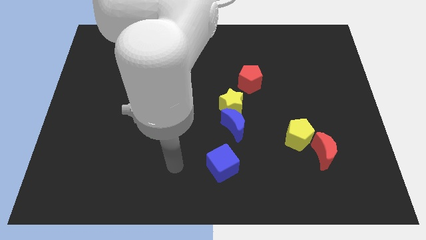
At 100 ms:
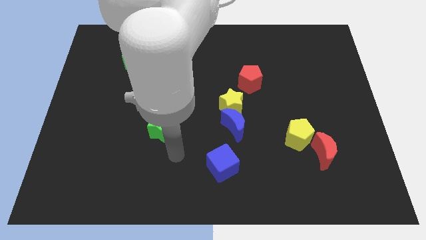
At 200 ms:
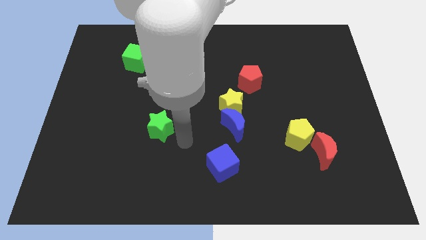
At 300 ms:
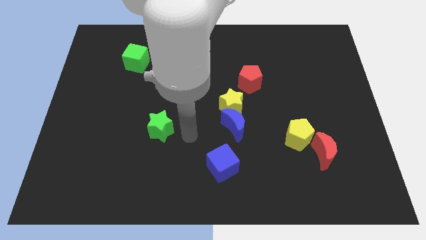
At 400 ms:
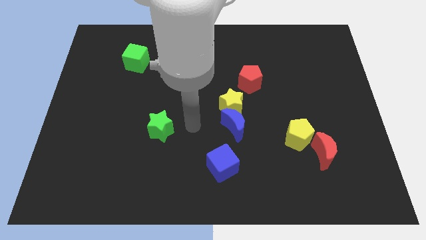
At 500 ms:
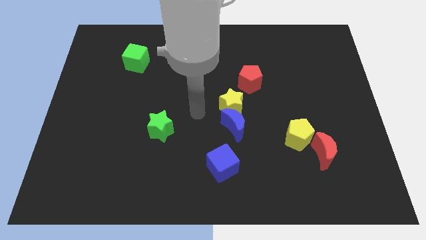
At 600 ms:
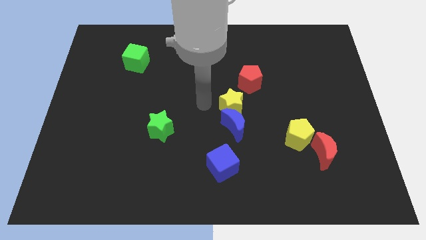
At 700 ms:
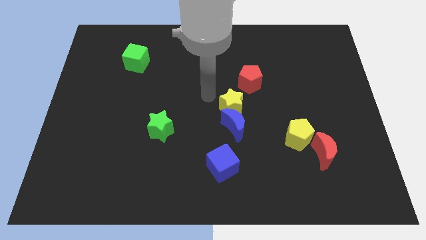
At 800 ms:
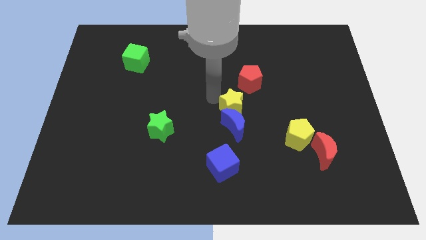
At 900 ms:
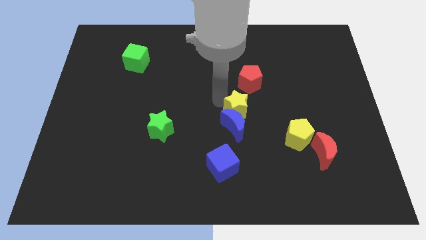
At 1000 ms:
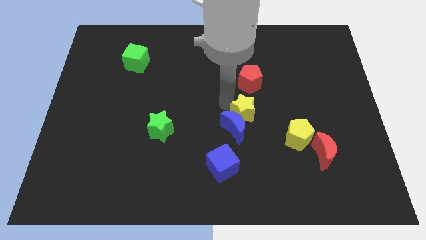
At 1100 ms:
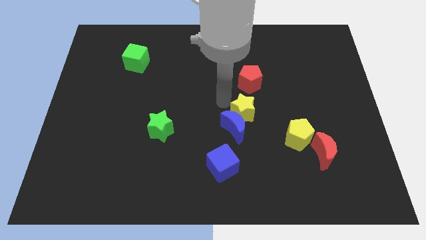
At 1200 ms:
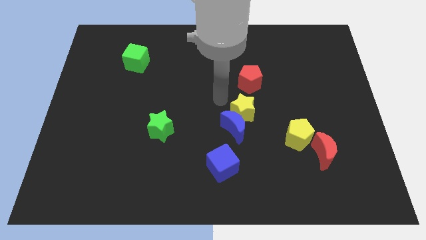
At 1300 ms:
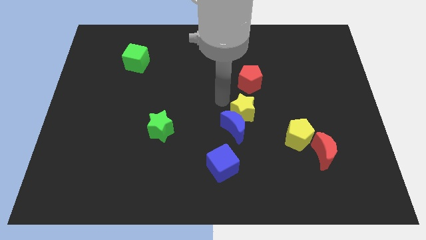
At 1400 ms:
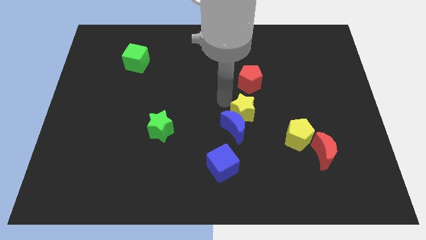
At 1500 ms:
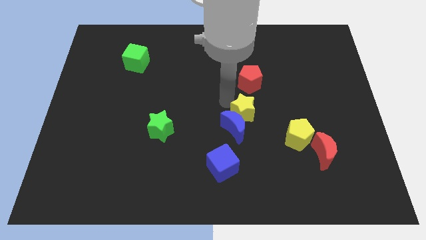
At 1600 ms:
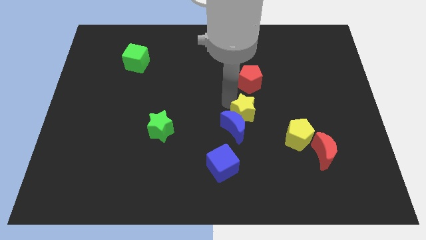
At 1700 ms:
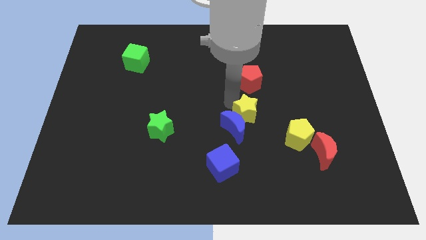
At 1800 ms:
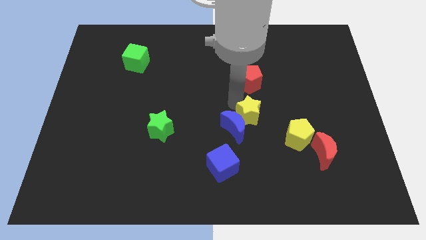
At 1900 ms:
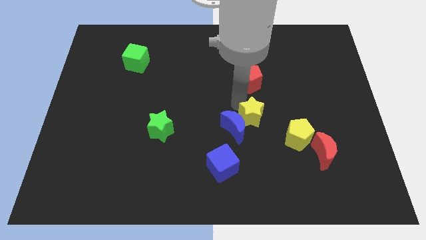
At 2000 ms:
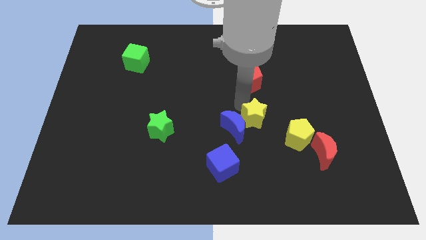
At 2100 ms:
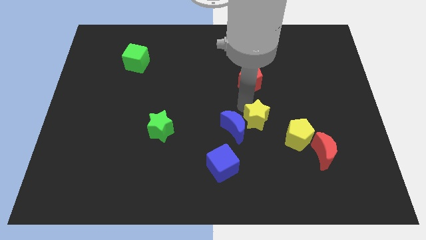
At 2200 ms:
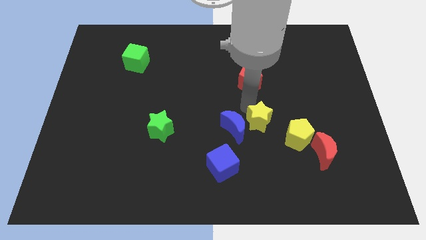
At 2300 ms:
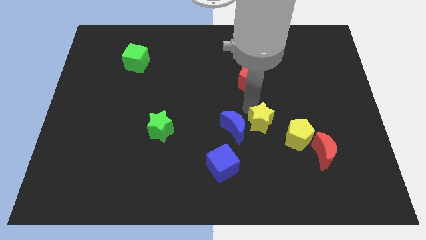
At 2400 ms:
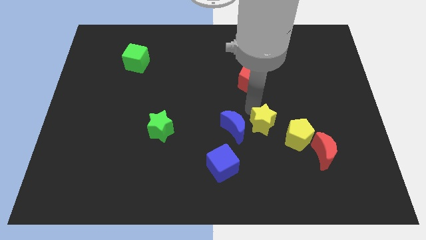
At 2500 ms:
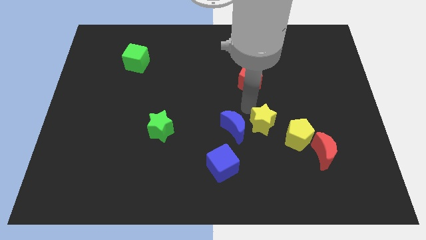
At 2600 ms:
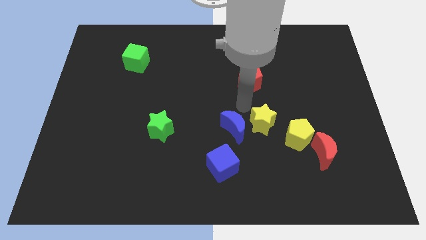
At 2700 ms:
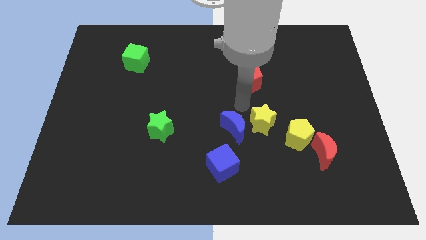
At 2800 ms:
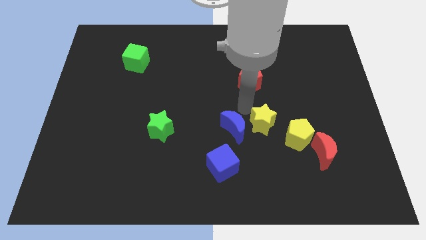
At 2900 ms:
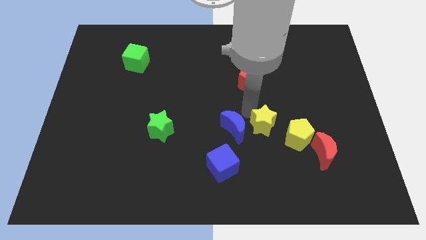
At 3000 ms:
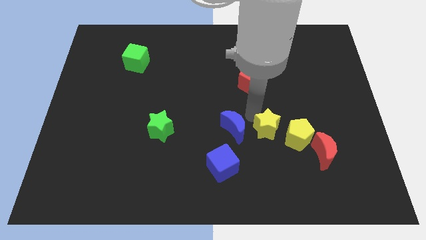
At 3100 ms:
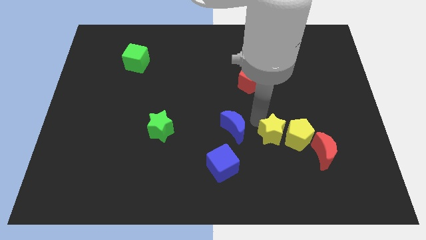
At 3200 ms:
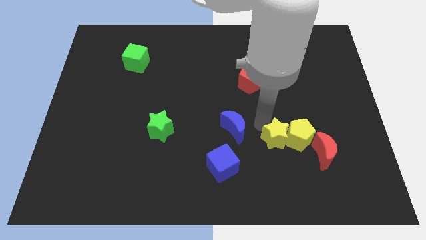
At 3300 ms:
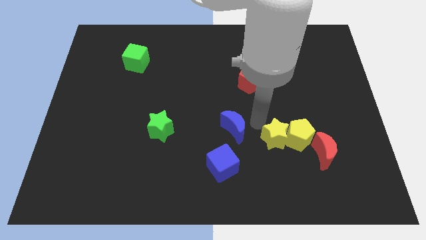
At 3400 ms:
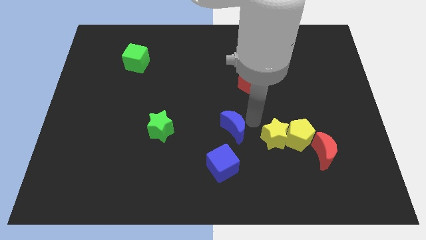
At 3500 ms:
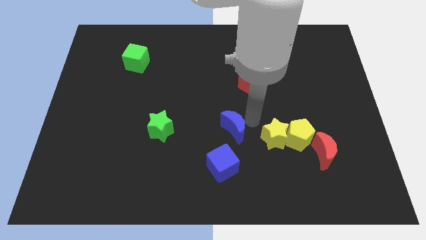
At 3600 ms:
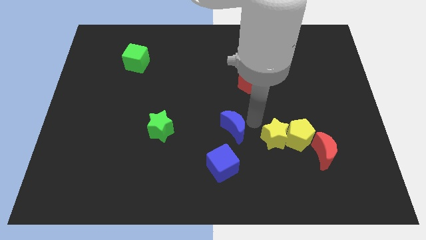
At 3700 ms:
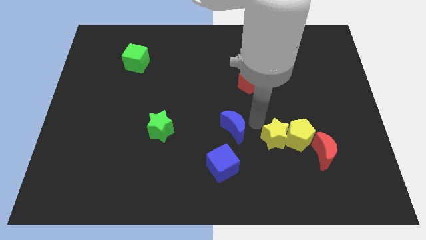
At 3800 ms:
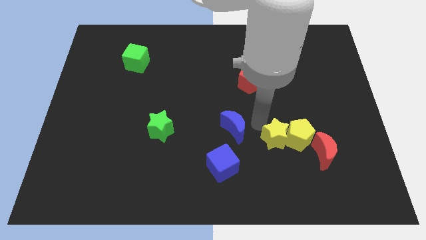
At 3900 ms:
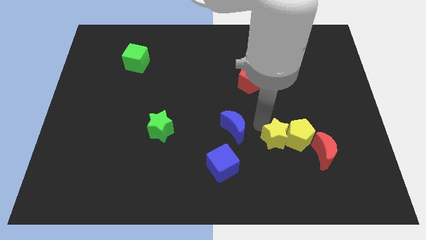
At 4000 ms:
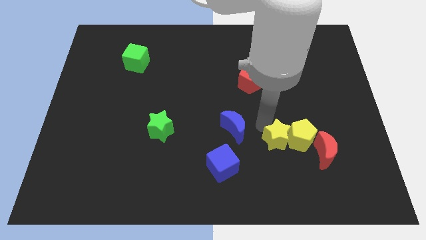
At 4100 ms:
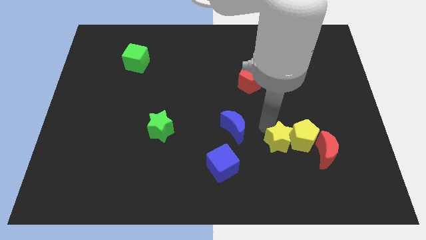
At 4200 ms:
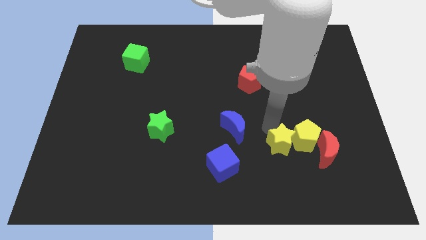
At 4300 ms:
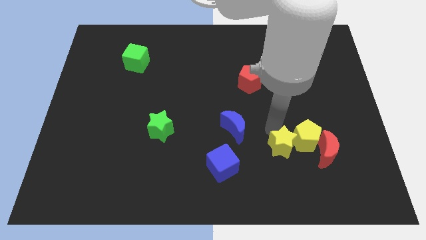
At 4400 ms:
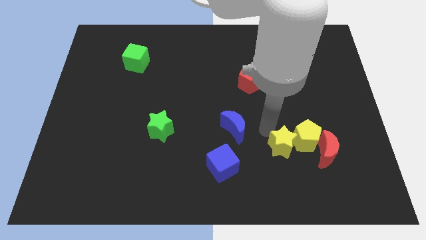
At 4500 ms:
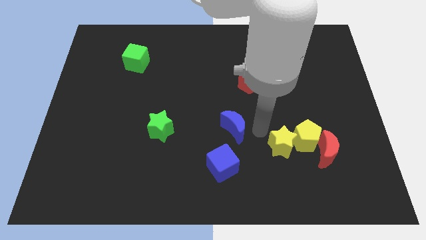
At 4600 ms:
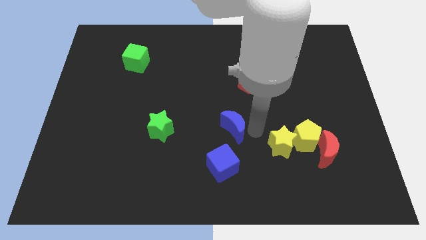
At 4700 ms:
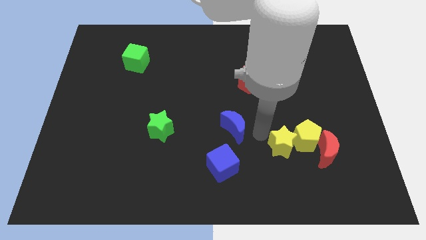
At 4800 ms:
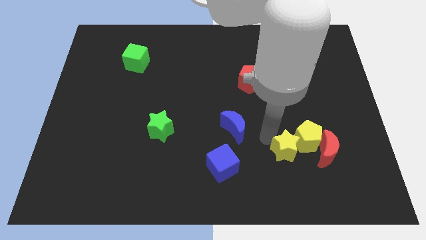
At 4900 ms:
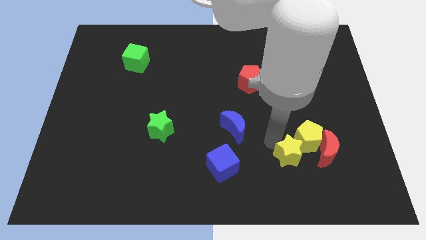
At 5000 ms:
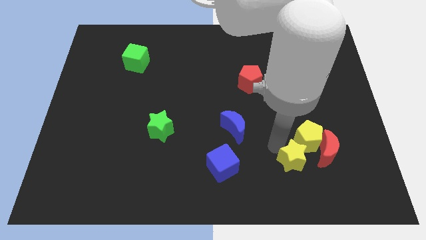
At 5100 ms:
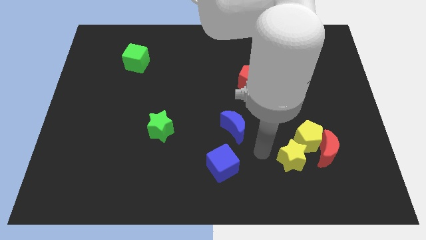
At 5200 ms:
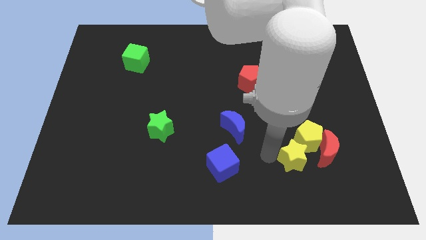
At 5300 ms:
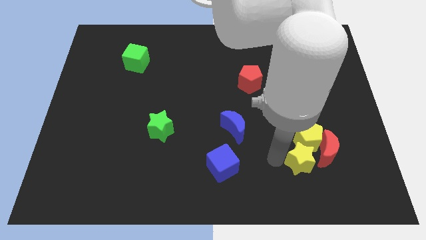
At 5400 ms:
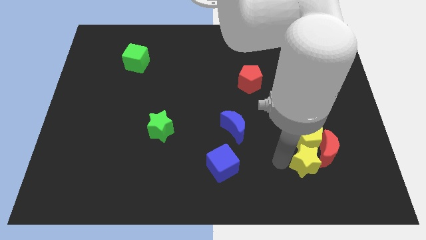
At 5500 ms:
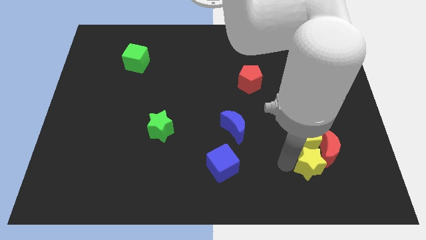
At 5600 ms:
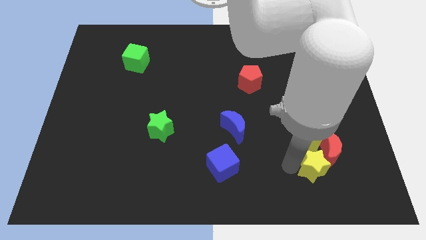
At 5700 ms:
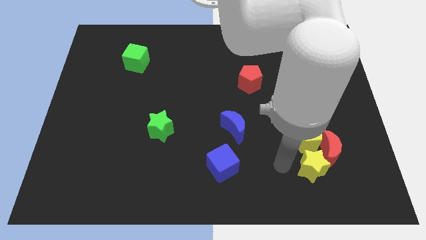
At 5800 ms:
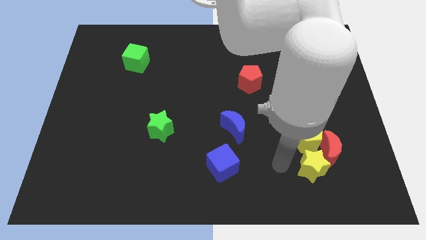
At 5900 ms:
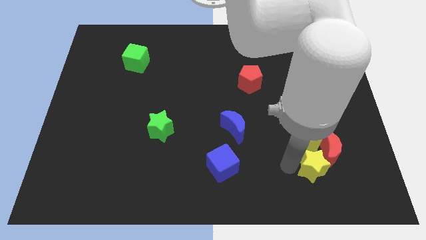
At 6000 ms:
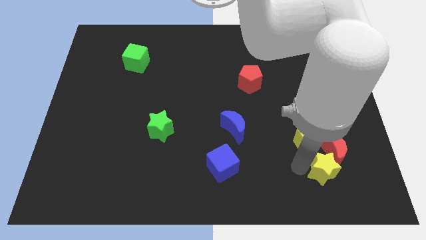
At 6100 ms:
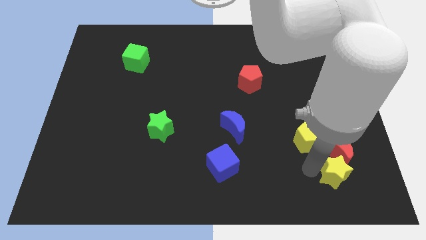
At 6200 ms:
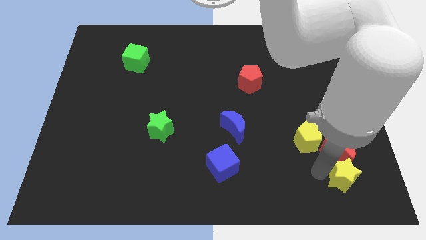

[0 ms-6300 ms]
put the yellow star to the bottom right of the red moon

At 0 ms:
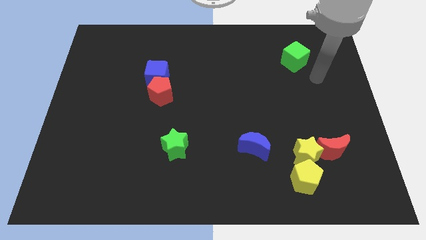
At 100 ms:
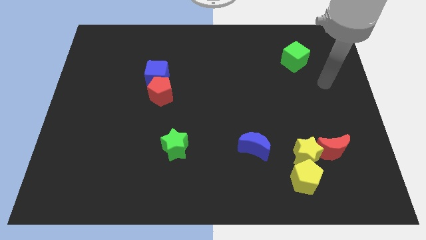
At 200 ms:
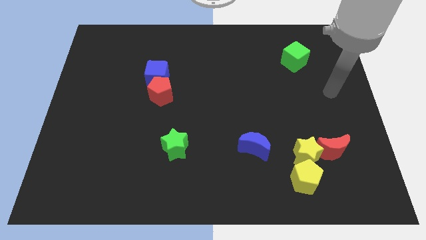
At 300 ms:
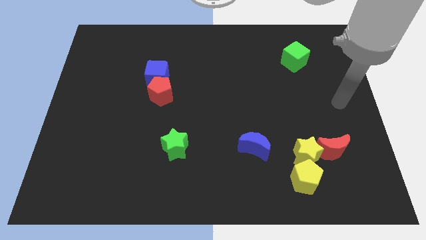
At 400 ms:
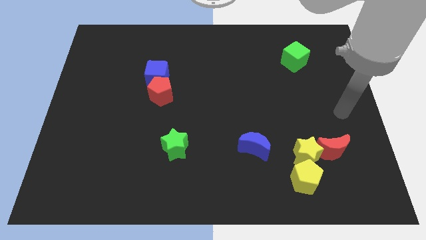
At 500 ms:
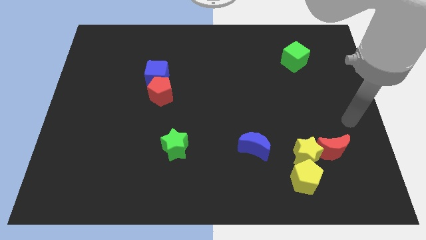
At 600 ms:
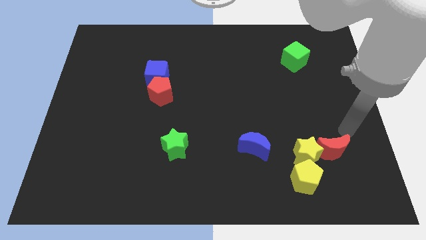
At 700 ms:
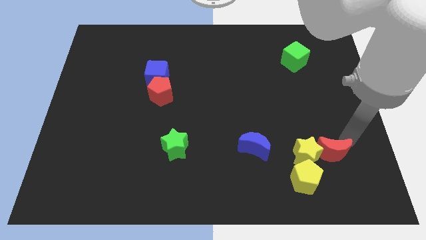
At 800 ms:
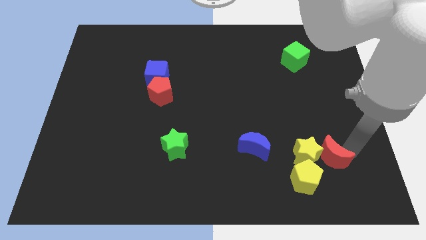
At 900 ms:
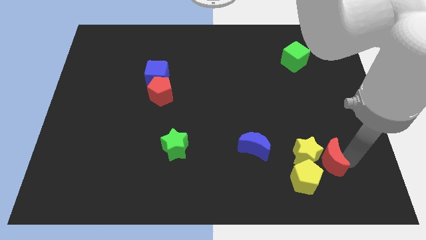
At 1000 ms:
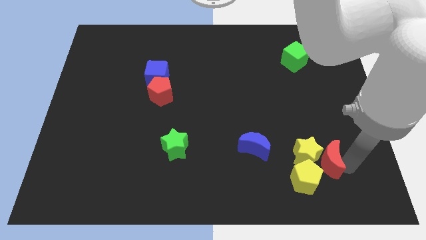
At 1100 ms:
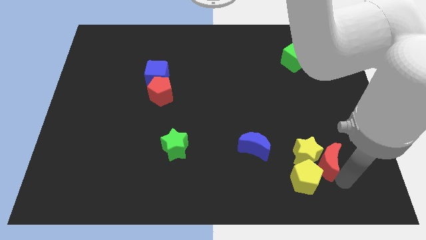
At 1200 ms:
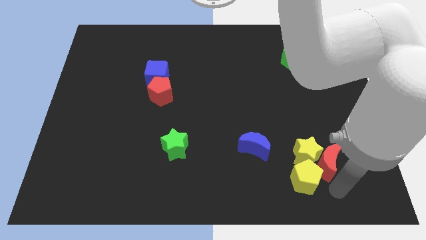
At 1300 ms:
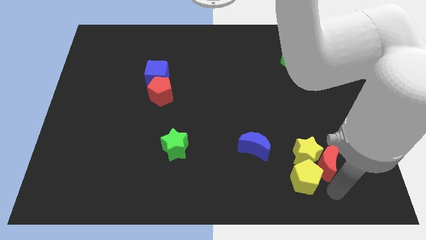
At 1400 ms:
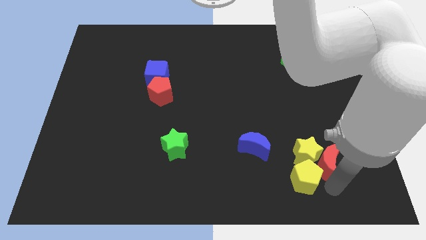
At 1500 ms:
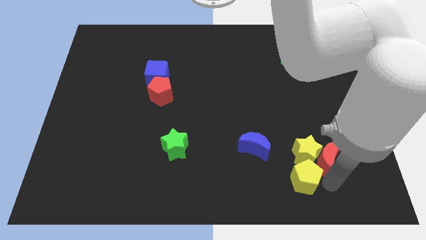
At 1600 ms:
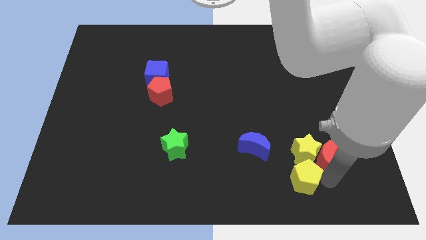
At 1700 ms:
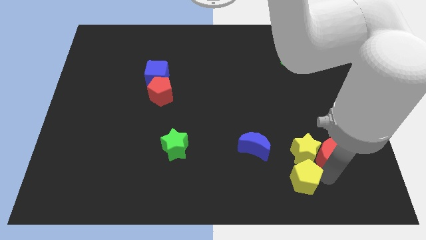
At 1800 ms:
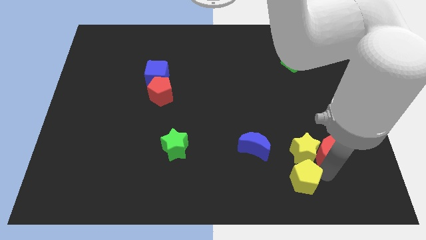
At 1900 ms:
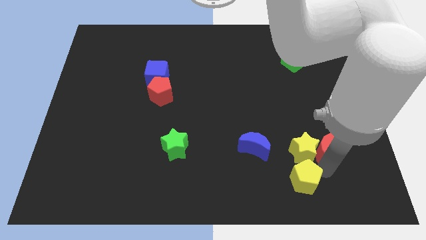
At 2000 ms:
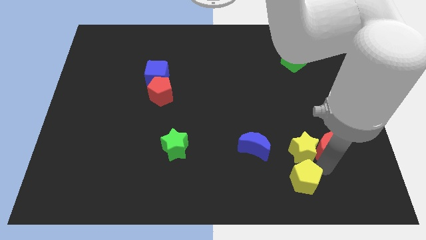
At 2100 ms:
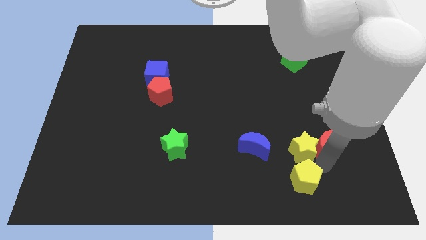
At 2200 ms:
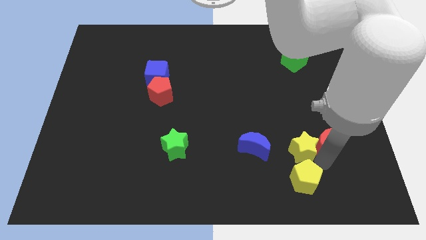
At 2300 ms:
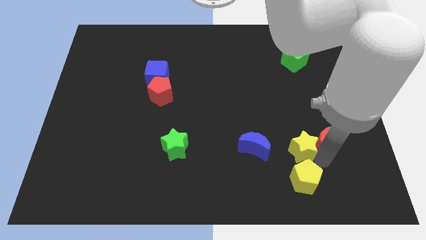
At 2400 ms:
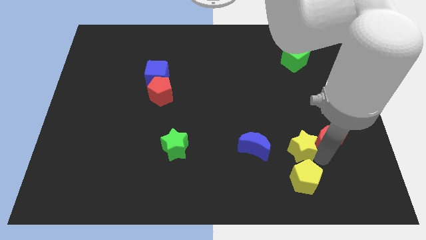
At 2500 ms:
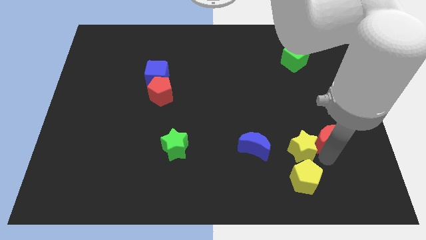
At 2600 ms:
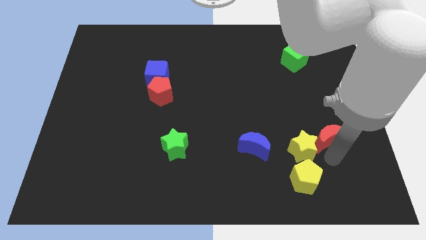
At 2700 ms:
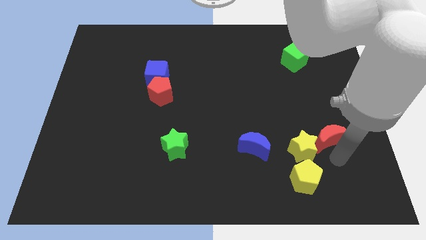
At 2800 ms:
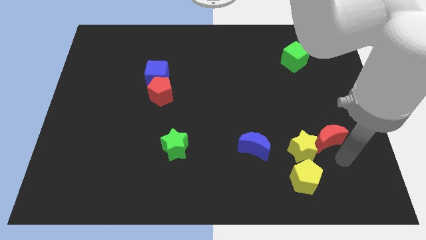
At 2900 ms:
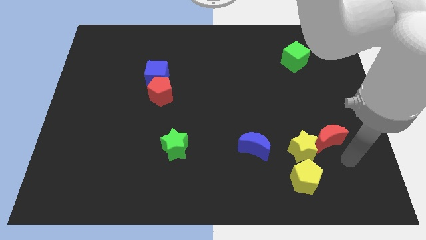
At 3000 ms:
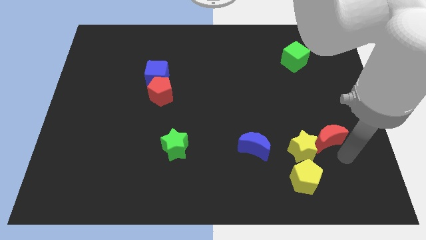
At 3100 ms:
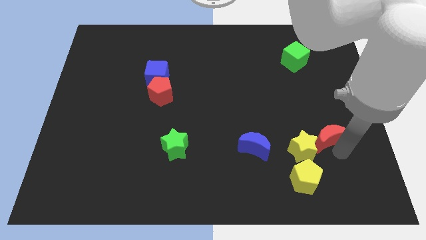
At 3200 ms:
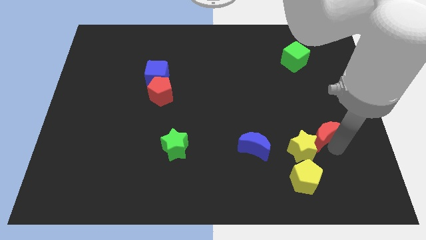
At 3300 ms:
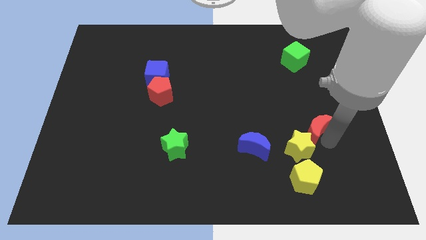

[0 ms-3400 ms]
slide the red moon to the top side of the yellow star
